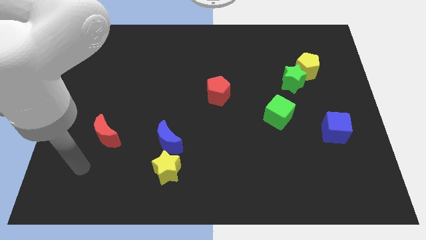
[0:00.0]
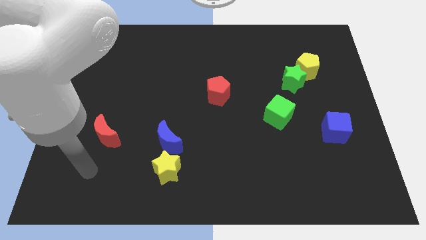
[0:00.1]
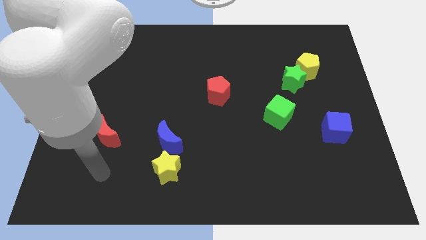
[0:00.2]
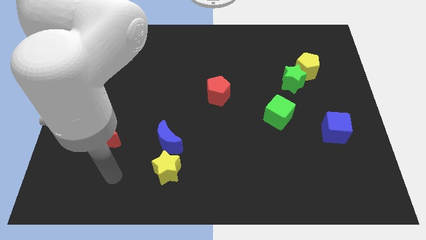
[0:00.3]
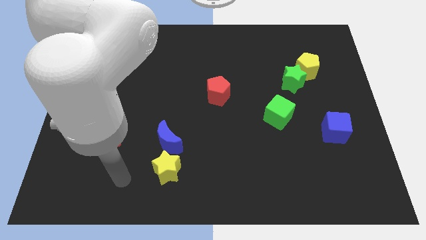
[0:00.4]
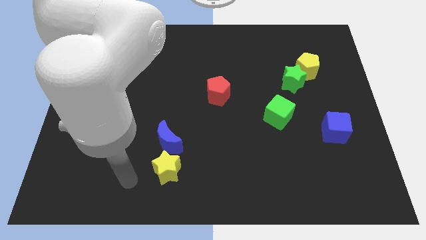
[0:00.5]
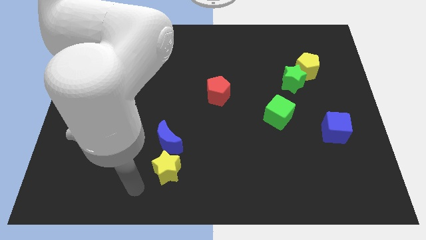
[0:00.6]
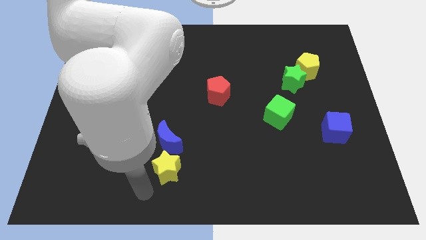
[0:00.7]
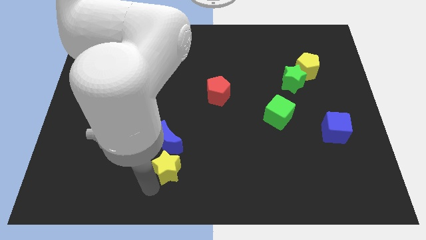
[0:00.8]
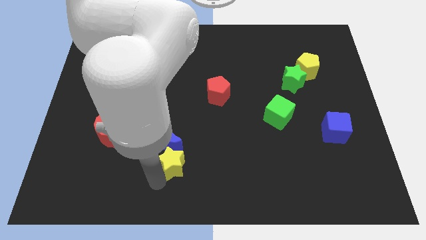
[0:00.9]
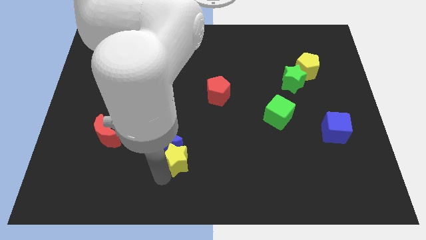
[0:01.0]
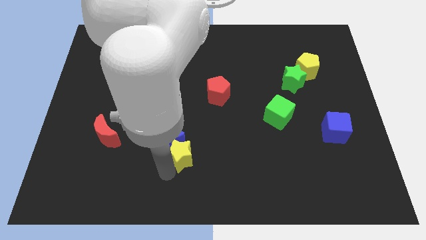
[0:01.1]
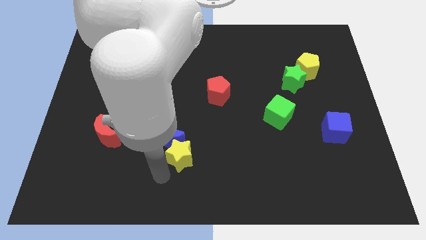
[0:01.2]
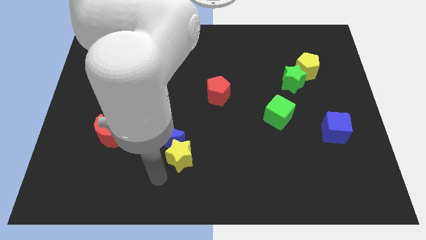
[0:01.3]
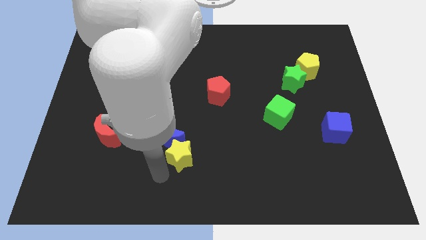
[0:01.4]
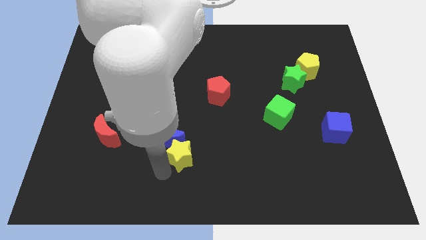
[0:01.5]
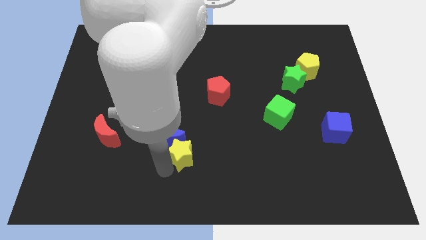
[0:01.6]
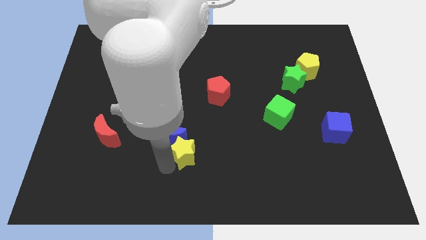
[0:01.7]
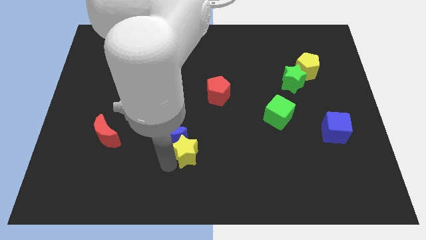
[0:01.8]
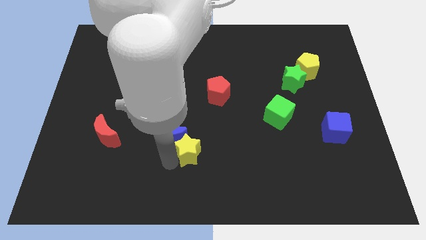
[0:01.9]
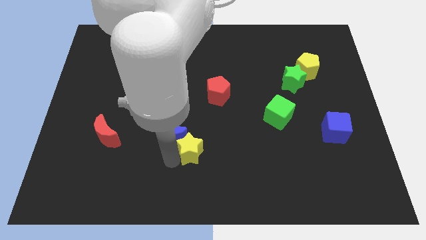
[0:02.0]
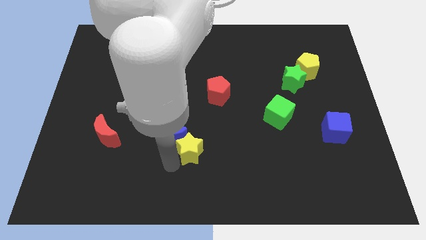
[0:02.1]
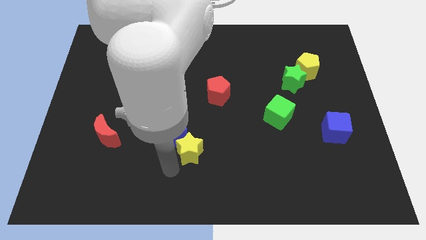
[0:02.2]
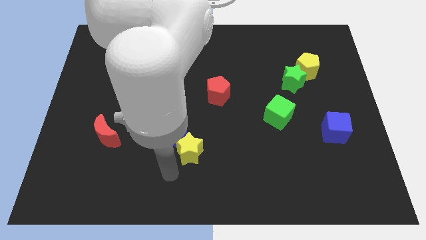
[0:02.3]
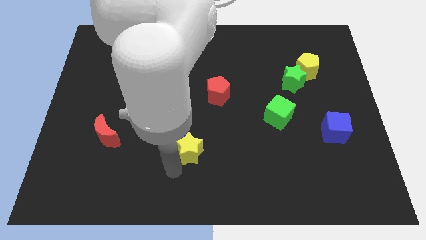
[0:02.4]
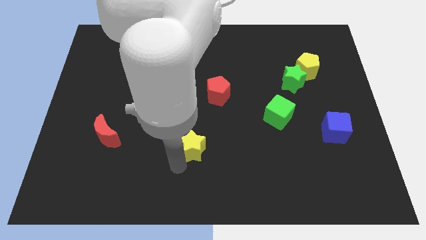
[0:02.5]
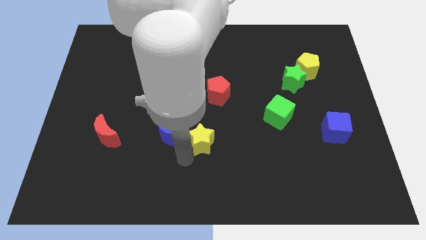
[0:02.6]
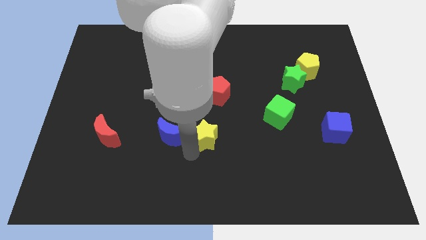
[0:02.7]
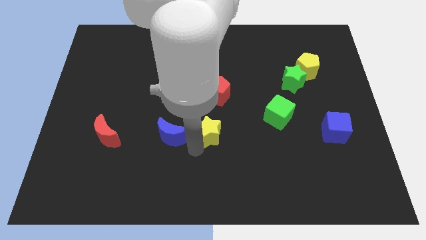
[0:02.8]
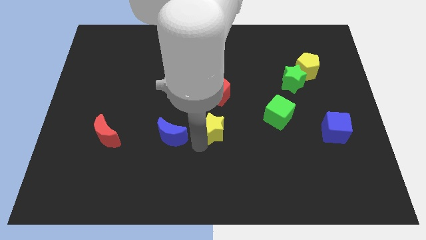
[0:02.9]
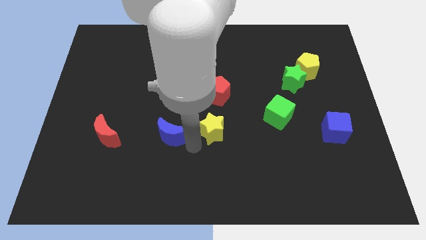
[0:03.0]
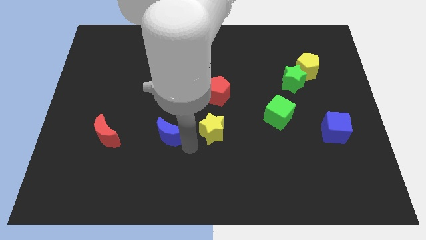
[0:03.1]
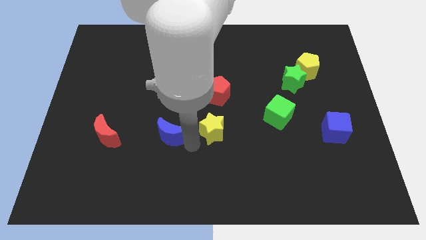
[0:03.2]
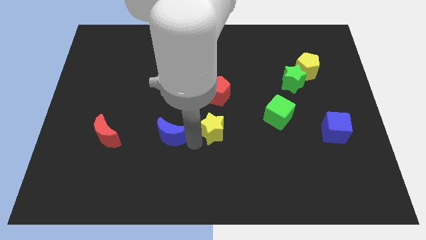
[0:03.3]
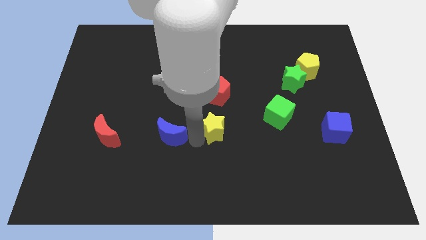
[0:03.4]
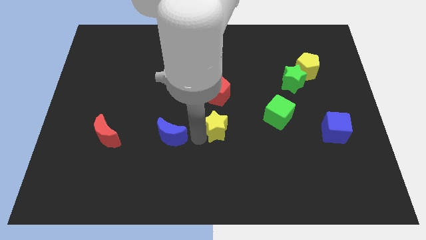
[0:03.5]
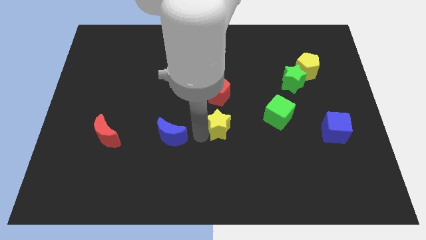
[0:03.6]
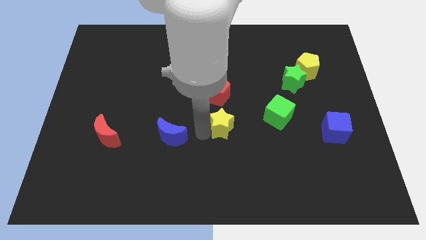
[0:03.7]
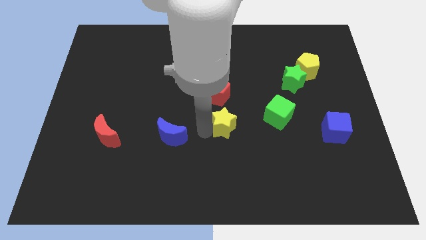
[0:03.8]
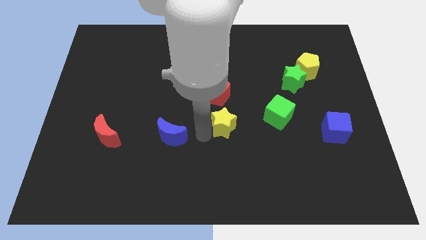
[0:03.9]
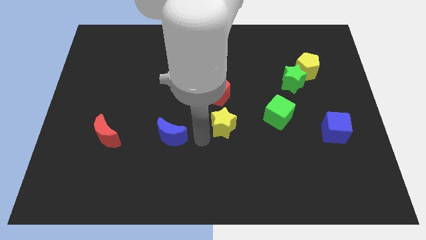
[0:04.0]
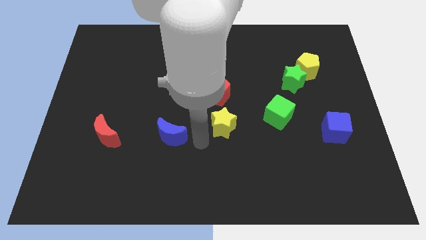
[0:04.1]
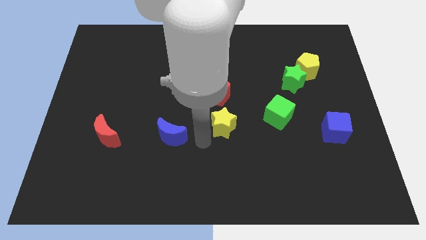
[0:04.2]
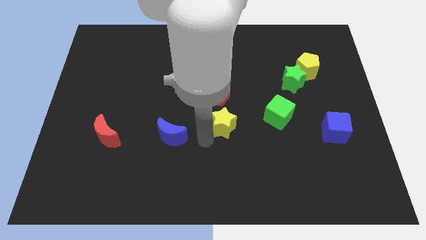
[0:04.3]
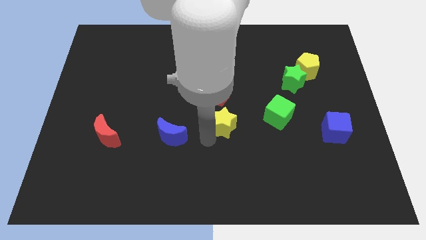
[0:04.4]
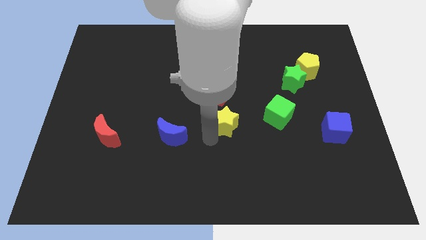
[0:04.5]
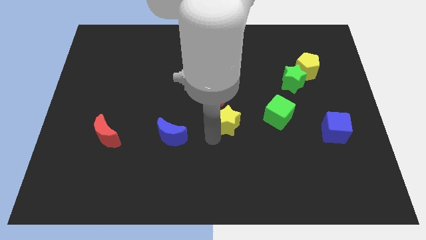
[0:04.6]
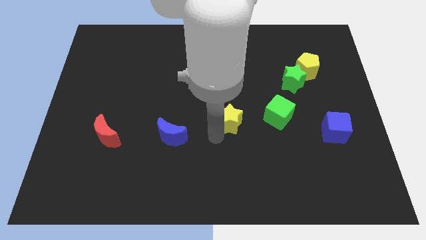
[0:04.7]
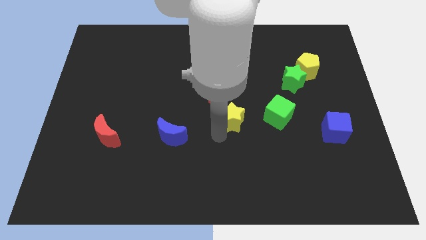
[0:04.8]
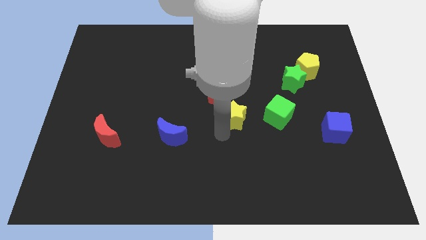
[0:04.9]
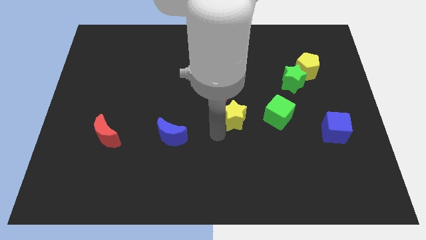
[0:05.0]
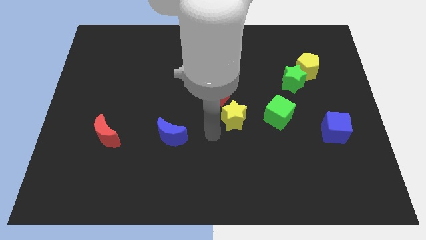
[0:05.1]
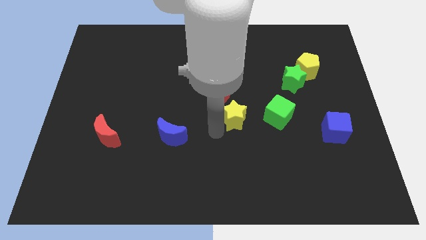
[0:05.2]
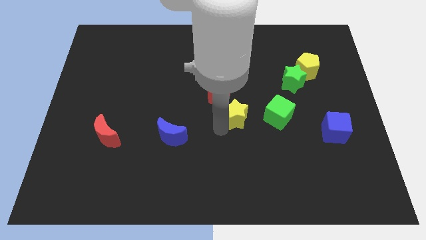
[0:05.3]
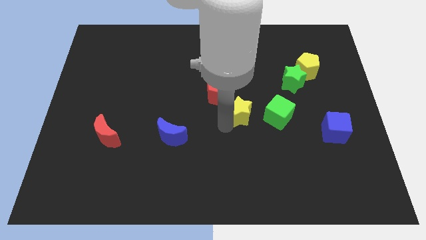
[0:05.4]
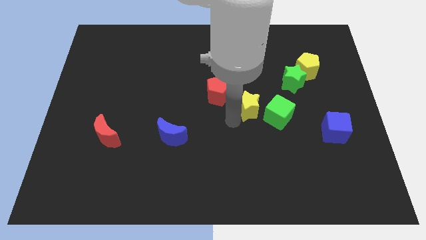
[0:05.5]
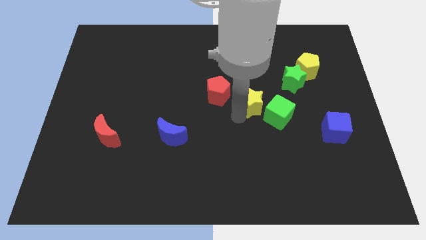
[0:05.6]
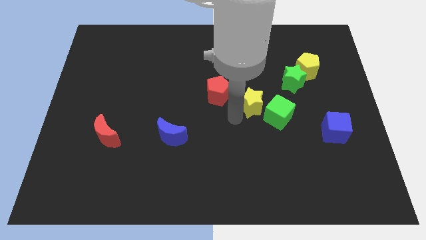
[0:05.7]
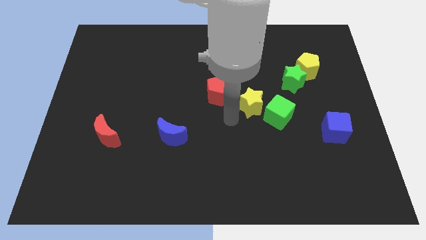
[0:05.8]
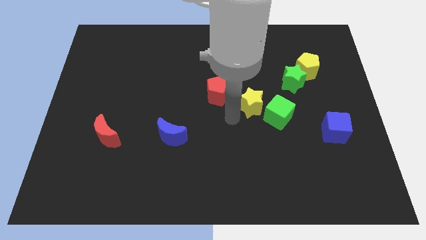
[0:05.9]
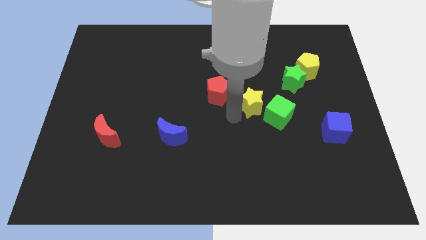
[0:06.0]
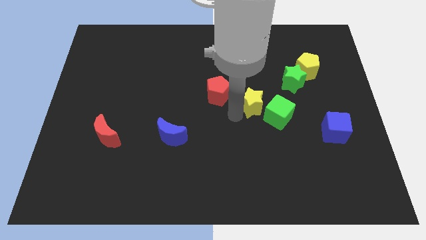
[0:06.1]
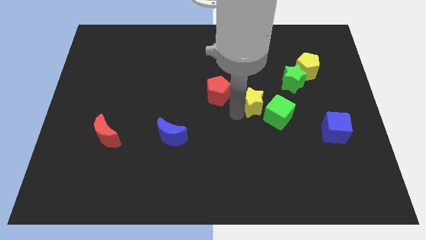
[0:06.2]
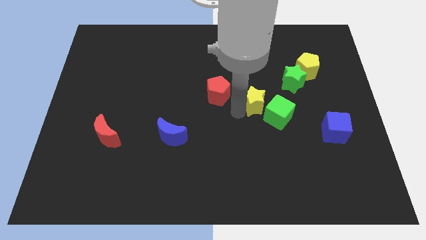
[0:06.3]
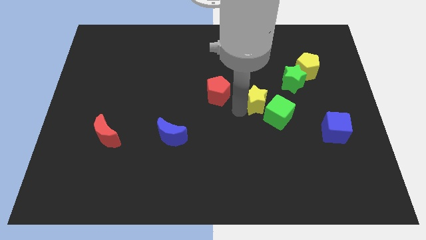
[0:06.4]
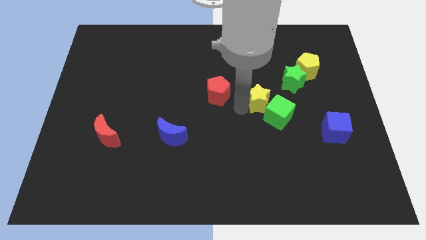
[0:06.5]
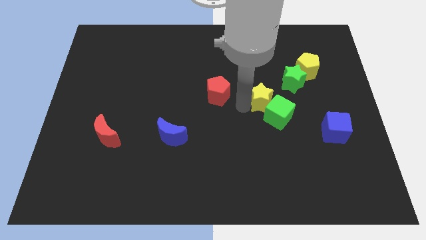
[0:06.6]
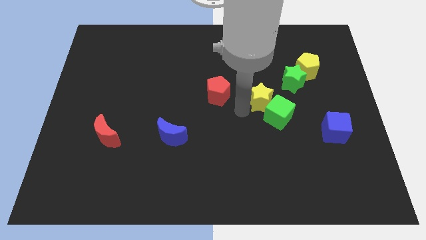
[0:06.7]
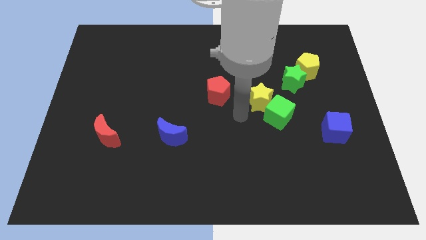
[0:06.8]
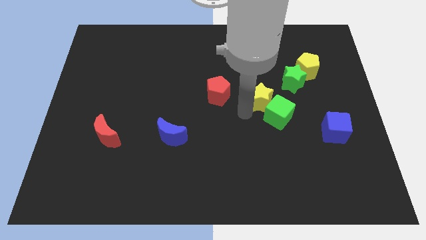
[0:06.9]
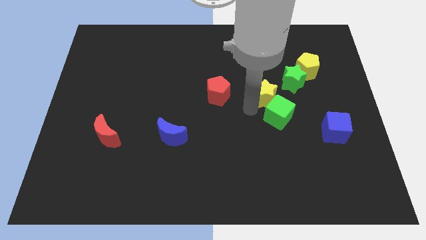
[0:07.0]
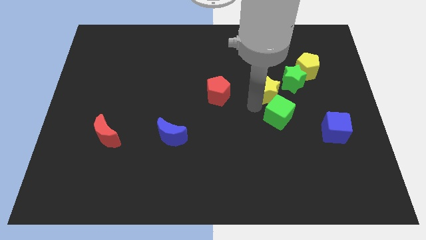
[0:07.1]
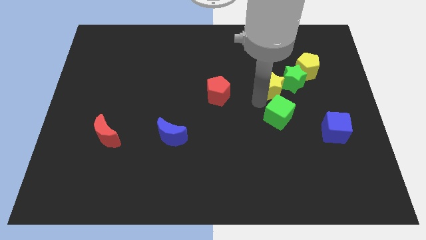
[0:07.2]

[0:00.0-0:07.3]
push the yellow star close to the green star

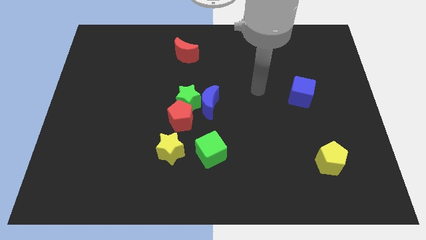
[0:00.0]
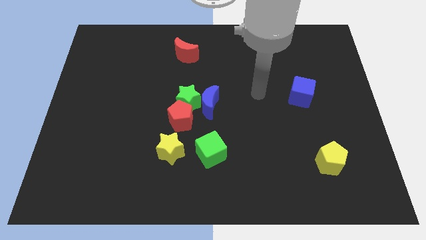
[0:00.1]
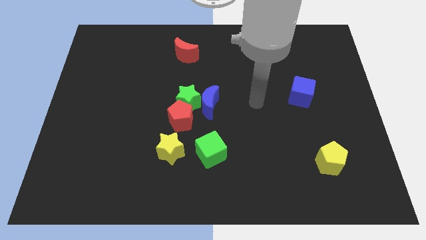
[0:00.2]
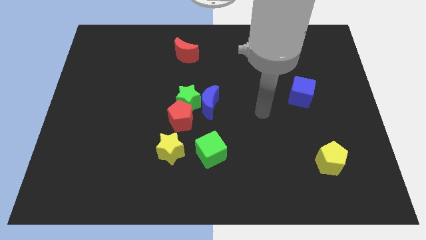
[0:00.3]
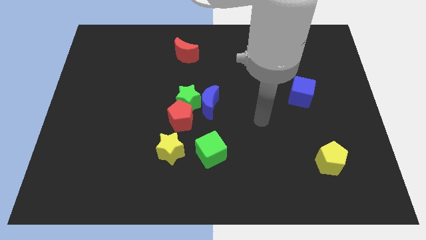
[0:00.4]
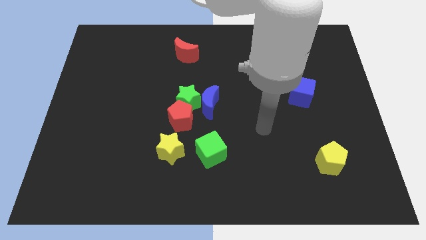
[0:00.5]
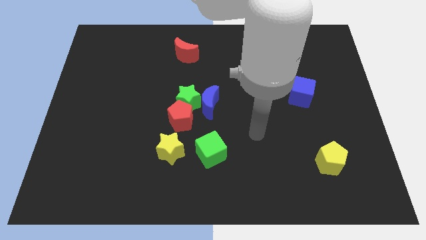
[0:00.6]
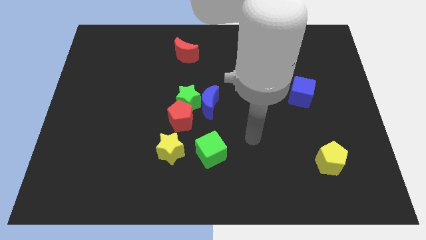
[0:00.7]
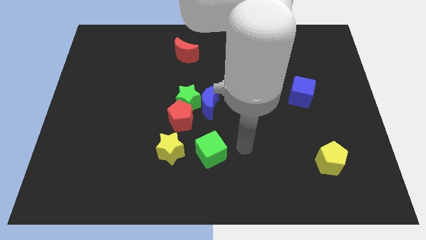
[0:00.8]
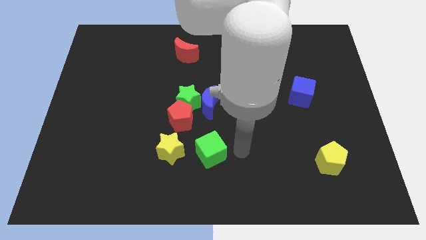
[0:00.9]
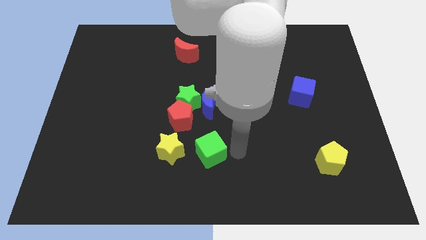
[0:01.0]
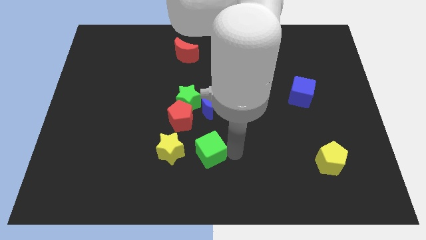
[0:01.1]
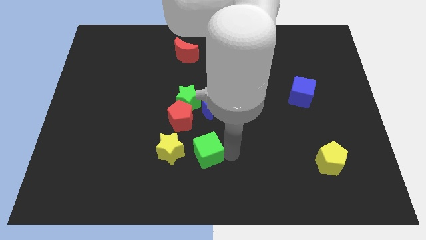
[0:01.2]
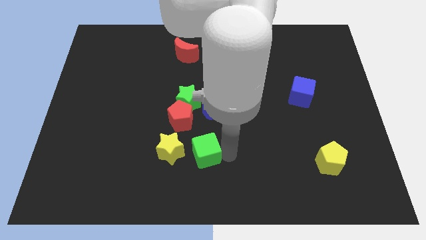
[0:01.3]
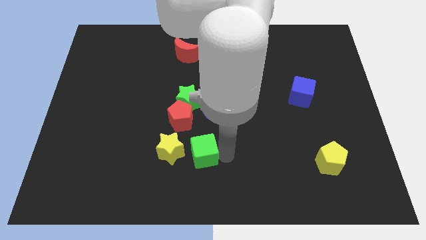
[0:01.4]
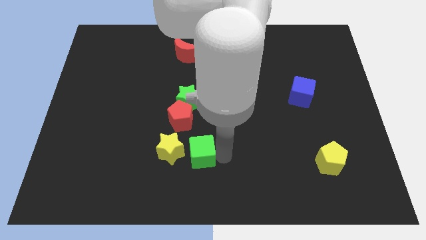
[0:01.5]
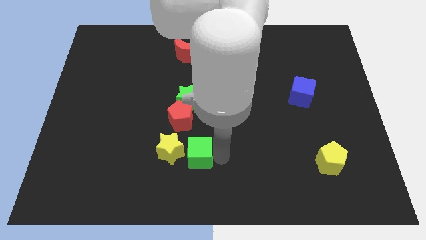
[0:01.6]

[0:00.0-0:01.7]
slide the green cube next to the yellow star
